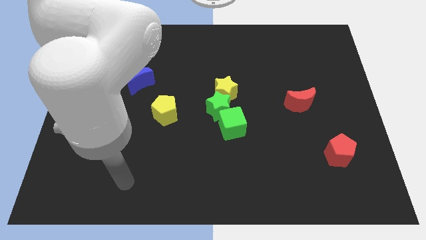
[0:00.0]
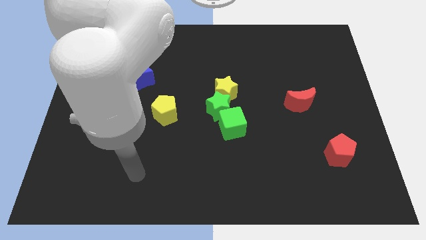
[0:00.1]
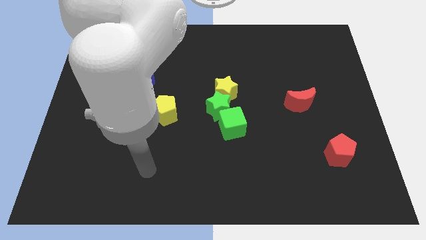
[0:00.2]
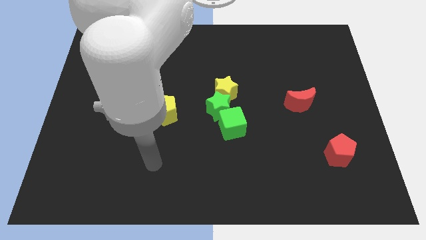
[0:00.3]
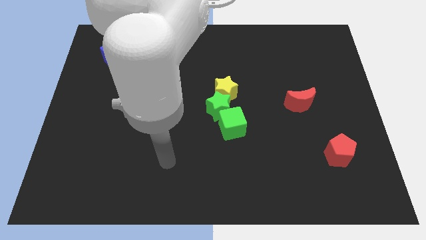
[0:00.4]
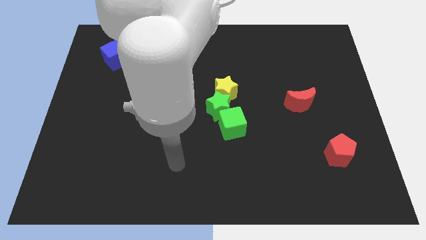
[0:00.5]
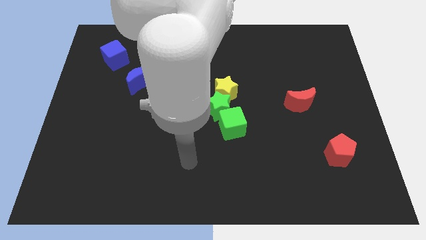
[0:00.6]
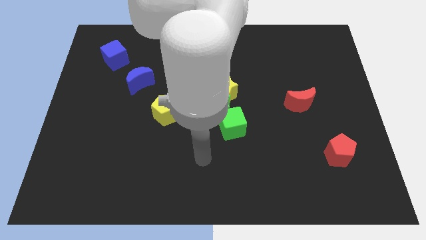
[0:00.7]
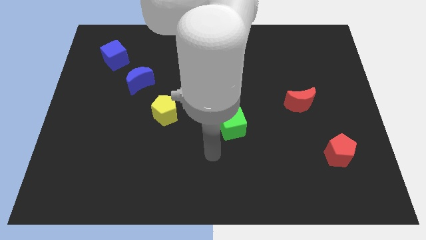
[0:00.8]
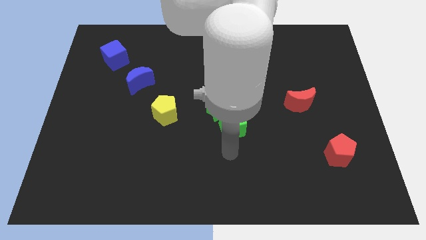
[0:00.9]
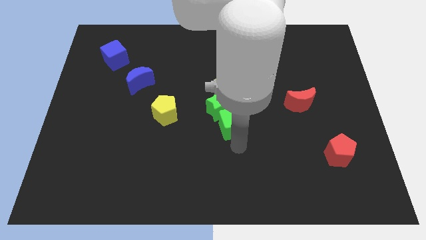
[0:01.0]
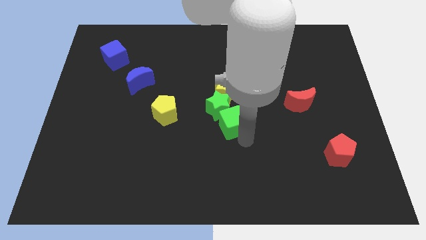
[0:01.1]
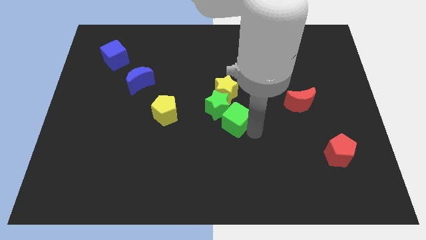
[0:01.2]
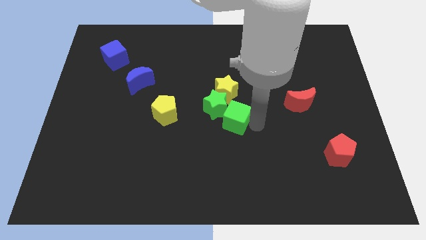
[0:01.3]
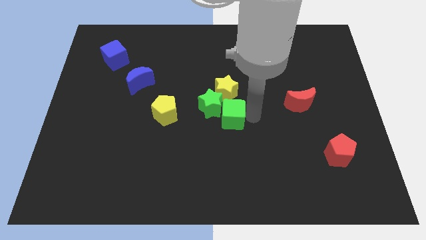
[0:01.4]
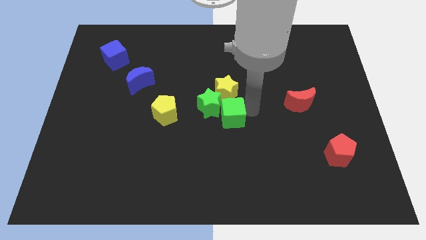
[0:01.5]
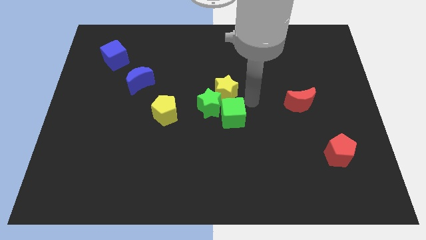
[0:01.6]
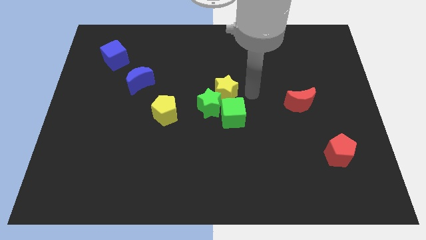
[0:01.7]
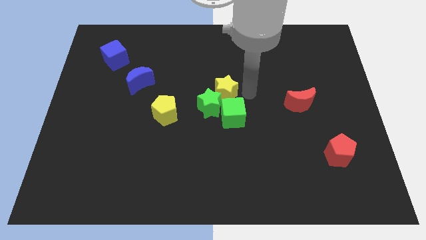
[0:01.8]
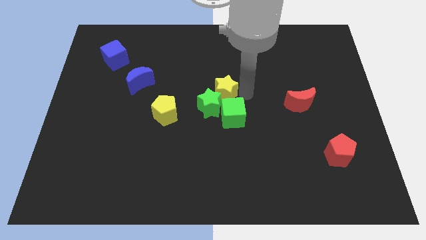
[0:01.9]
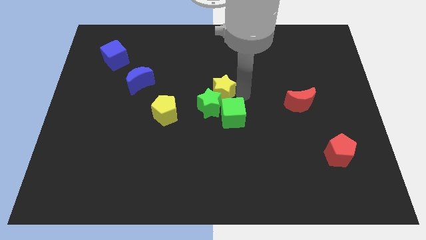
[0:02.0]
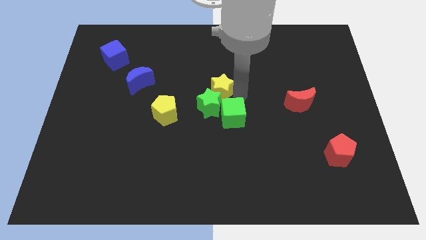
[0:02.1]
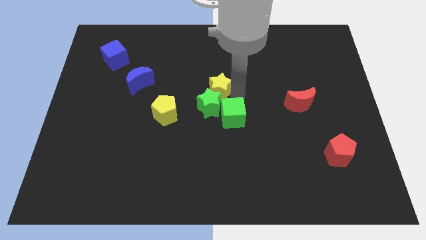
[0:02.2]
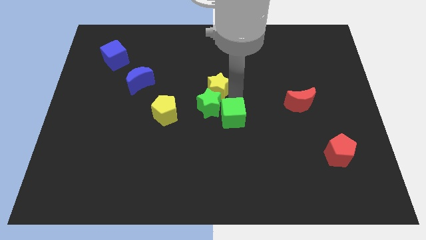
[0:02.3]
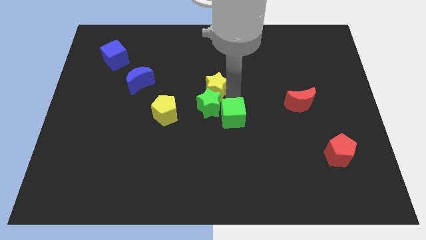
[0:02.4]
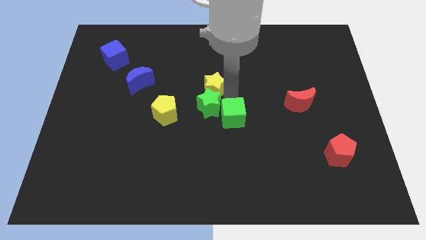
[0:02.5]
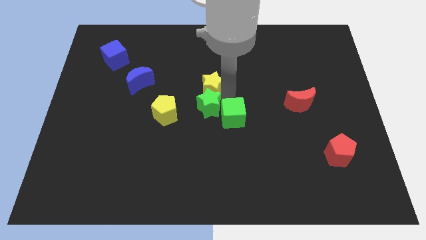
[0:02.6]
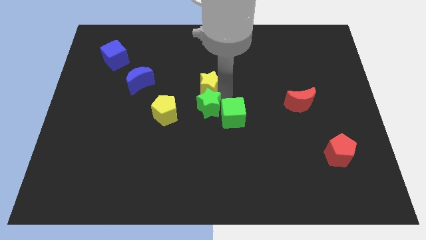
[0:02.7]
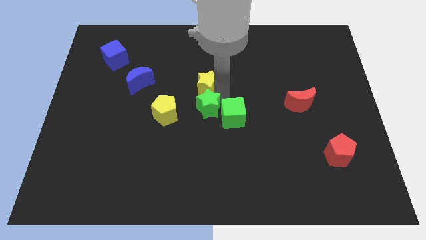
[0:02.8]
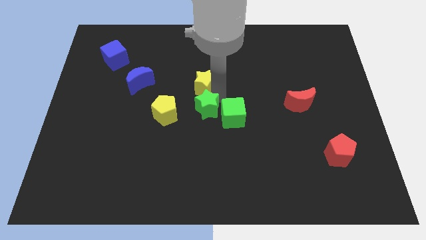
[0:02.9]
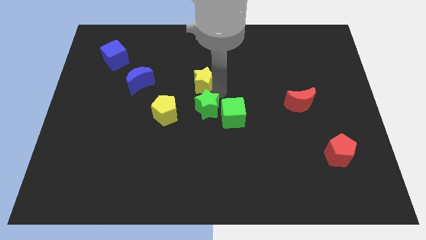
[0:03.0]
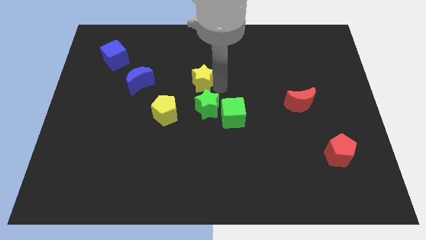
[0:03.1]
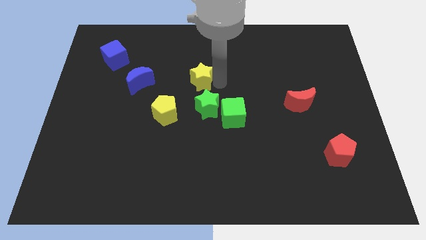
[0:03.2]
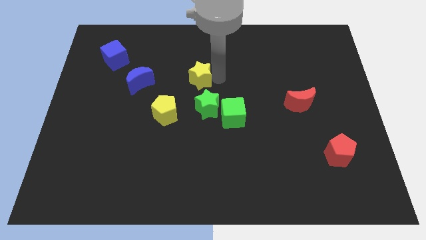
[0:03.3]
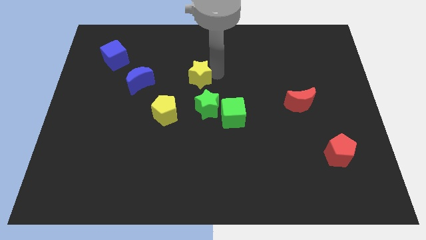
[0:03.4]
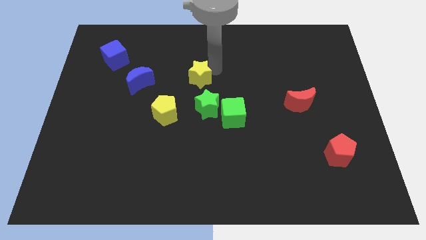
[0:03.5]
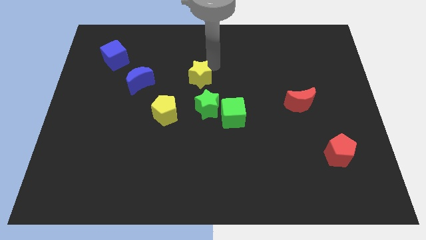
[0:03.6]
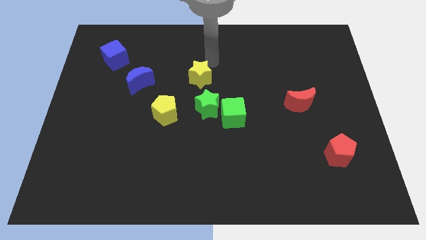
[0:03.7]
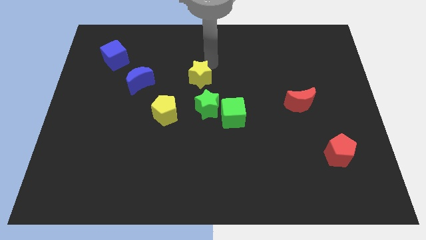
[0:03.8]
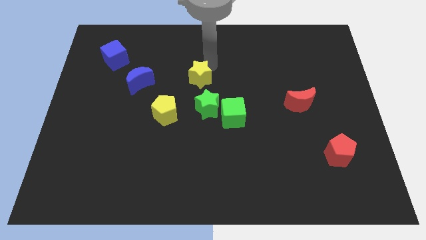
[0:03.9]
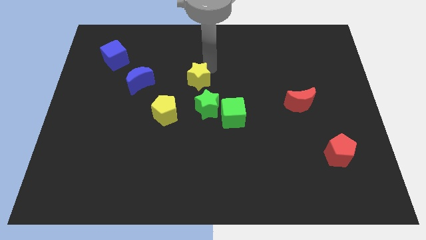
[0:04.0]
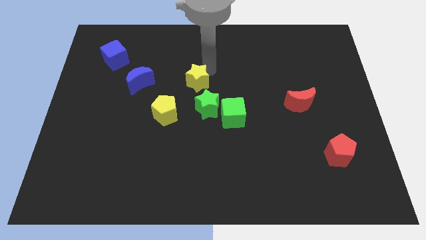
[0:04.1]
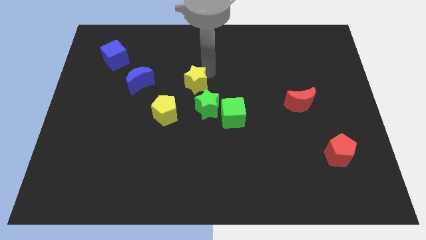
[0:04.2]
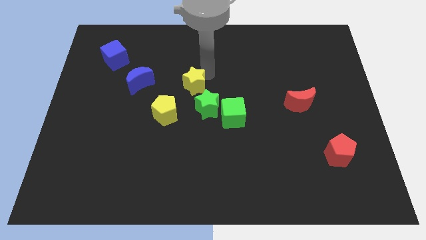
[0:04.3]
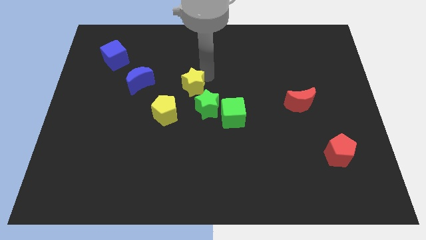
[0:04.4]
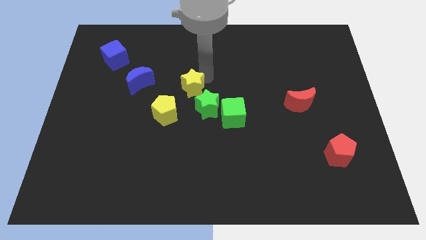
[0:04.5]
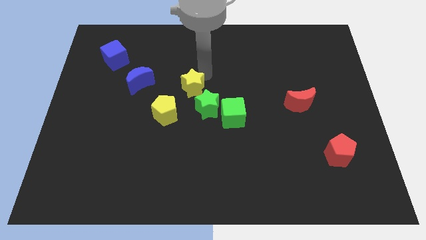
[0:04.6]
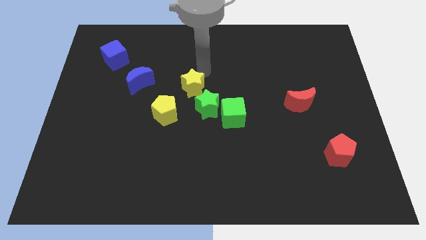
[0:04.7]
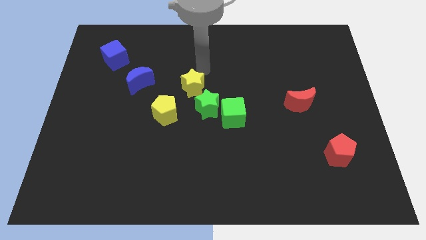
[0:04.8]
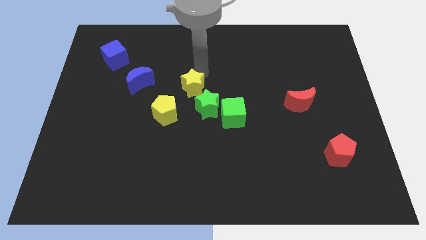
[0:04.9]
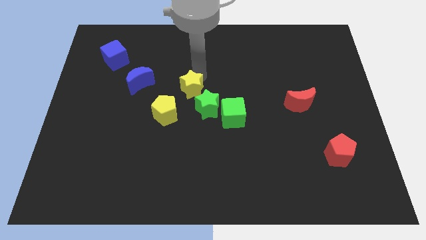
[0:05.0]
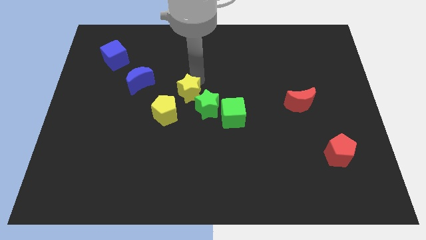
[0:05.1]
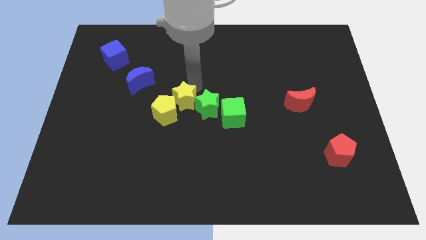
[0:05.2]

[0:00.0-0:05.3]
move the yellow star next to the yellow pentagon
